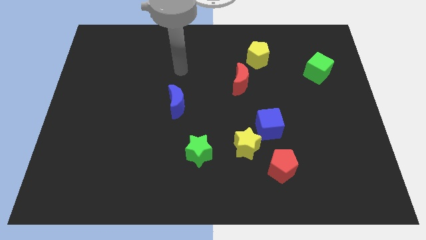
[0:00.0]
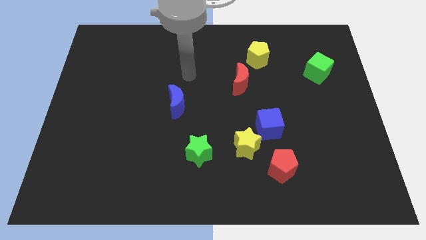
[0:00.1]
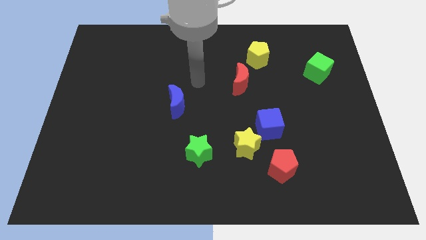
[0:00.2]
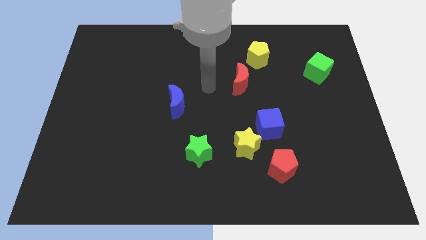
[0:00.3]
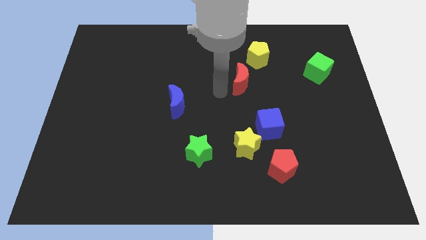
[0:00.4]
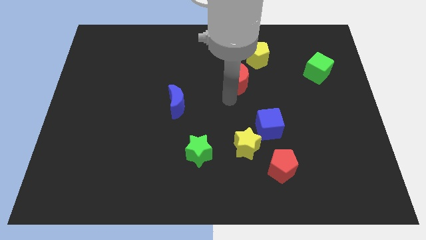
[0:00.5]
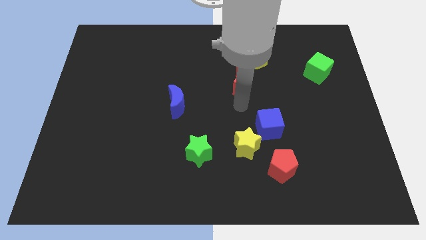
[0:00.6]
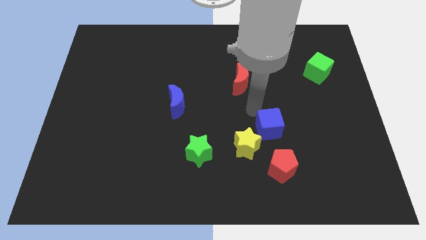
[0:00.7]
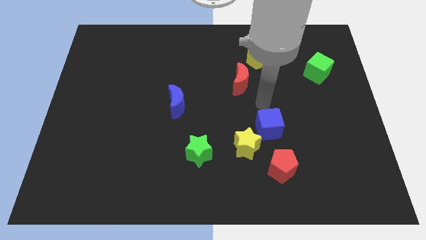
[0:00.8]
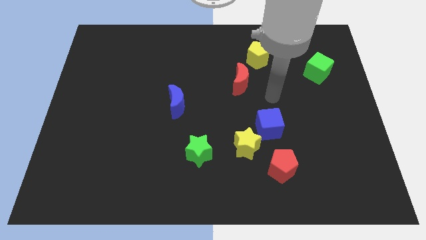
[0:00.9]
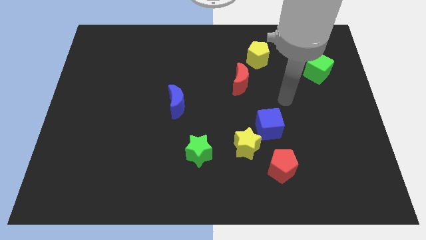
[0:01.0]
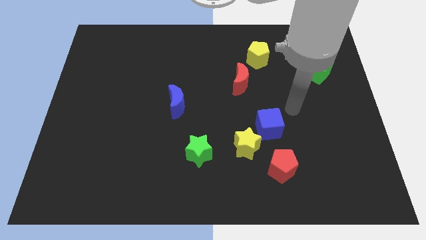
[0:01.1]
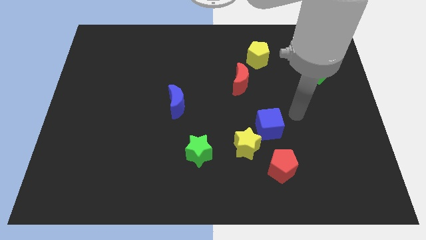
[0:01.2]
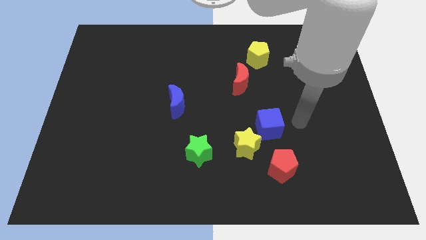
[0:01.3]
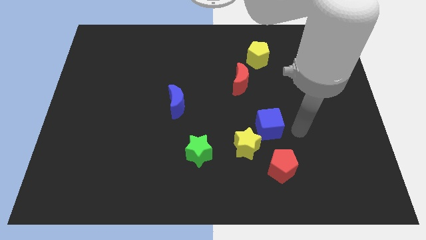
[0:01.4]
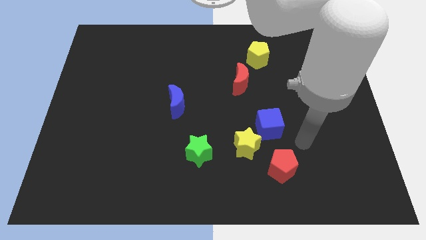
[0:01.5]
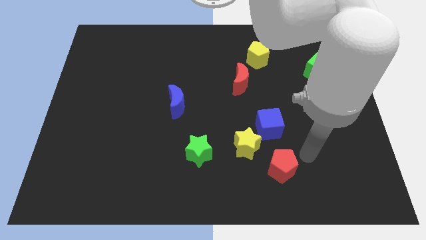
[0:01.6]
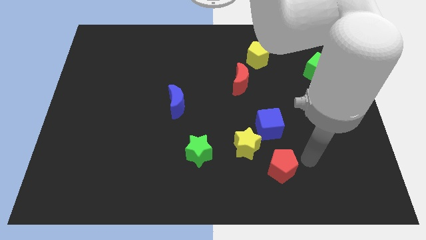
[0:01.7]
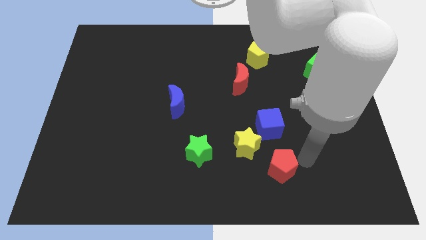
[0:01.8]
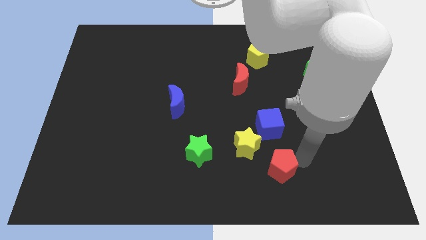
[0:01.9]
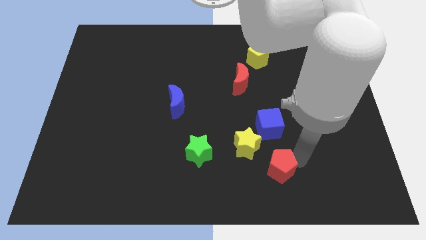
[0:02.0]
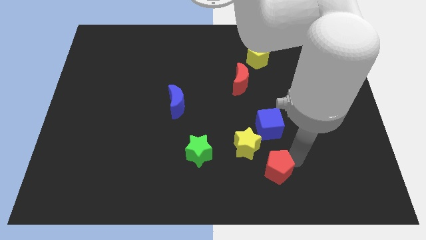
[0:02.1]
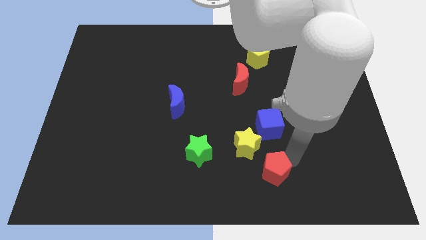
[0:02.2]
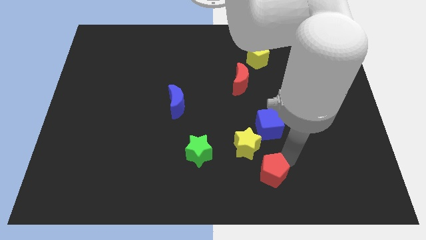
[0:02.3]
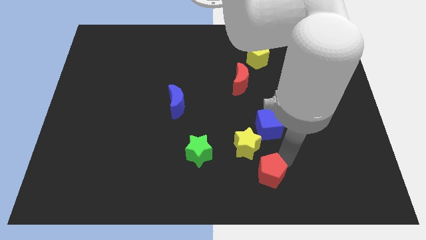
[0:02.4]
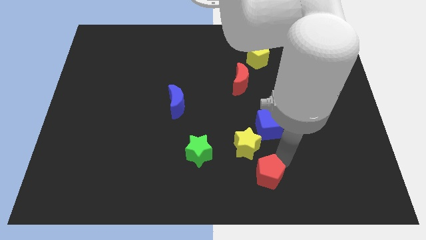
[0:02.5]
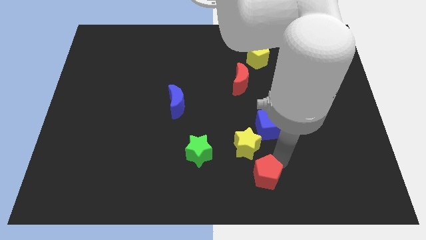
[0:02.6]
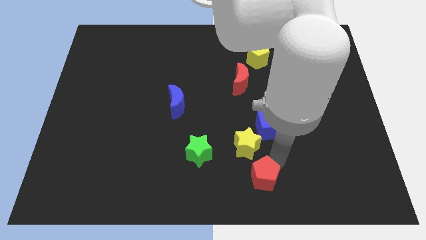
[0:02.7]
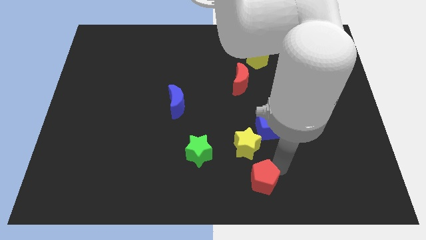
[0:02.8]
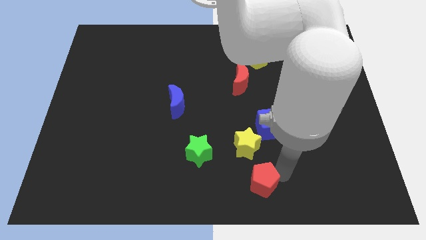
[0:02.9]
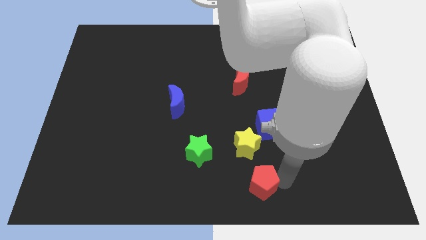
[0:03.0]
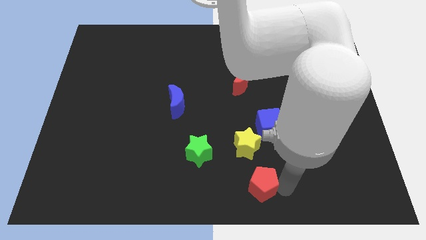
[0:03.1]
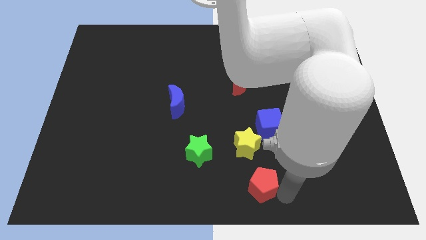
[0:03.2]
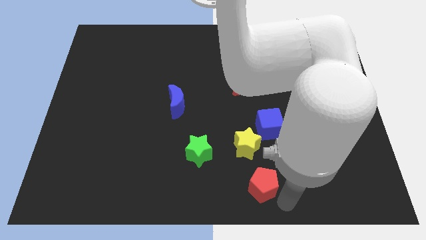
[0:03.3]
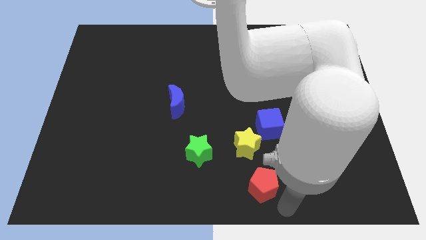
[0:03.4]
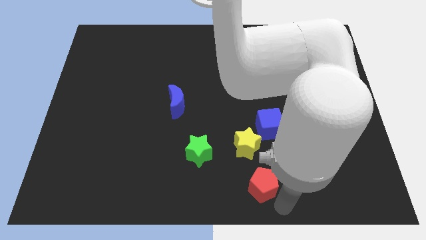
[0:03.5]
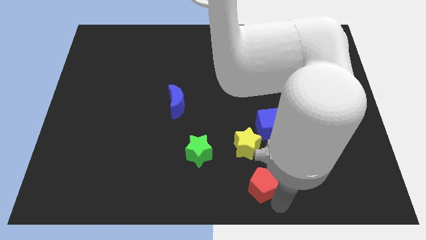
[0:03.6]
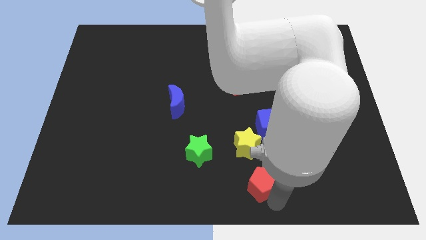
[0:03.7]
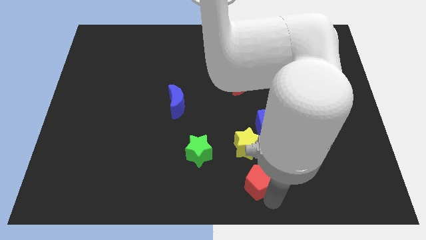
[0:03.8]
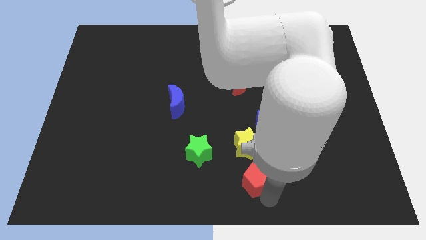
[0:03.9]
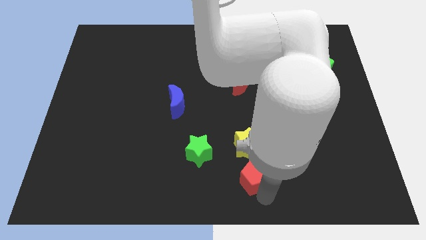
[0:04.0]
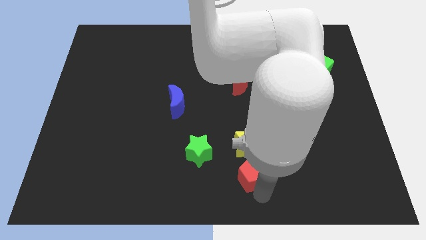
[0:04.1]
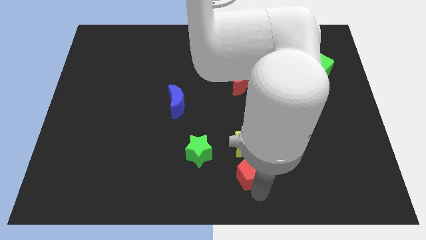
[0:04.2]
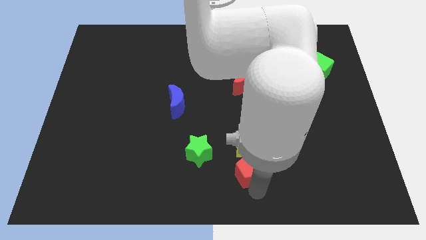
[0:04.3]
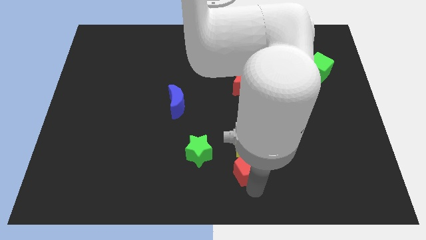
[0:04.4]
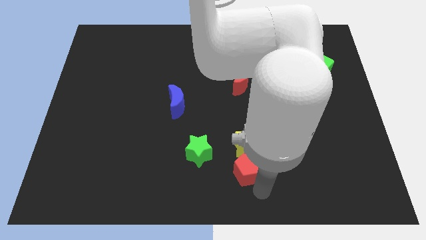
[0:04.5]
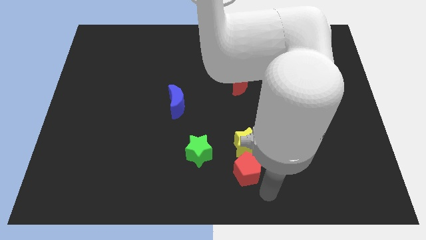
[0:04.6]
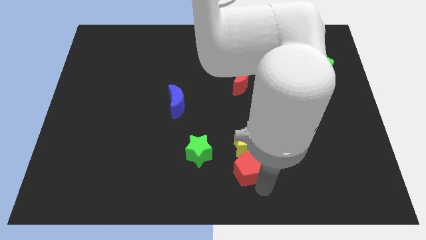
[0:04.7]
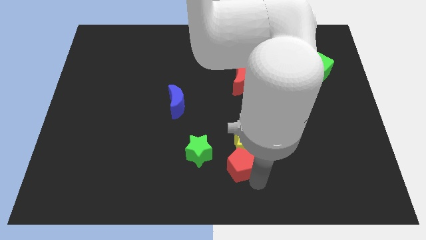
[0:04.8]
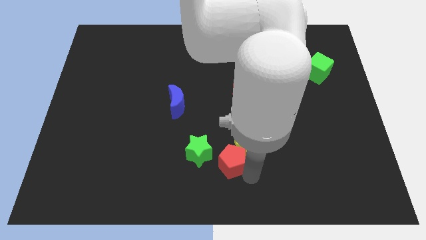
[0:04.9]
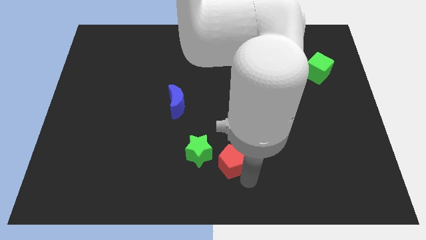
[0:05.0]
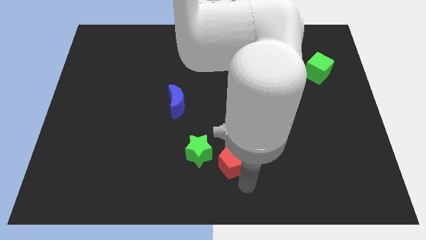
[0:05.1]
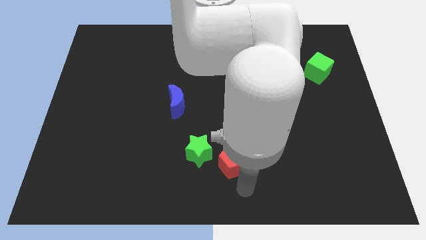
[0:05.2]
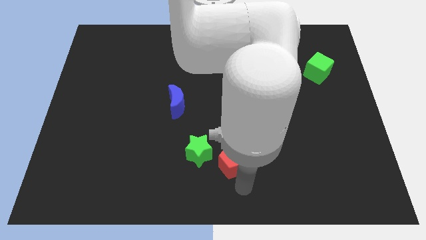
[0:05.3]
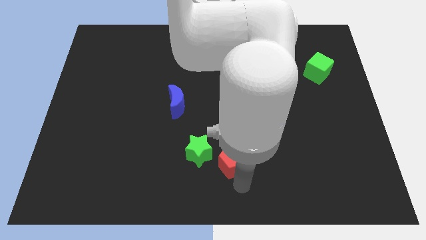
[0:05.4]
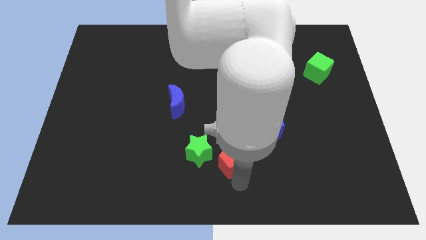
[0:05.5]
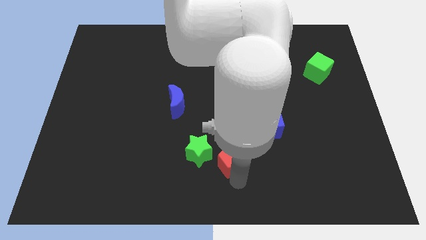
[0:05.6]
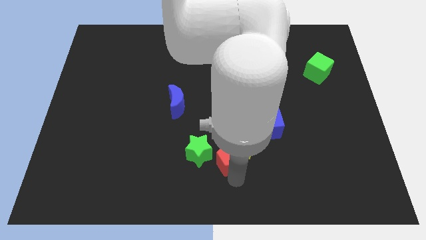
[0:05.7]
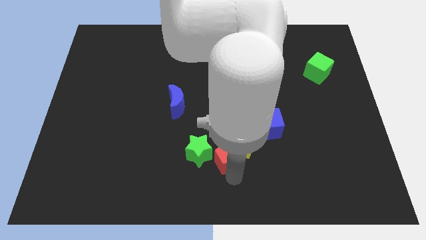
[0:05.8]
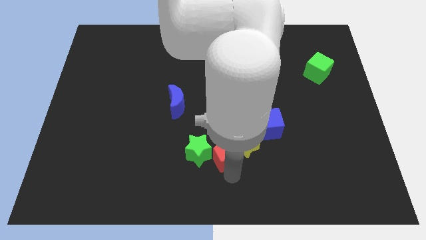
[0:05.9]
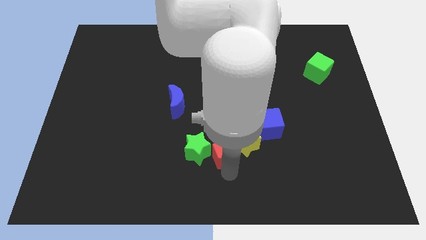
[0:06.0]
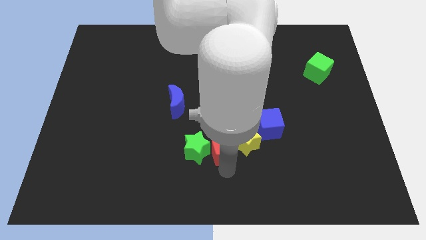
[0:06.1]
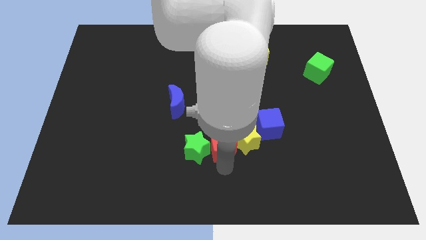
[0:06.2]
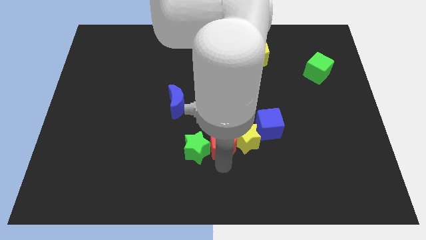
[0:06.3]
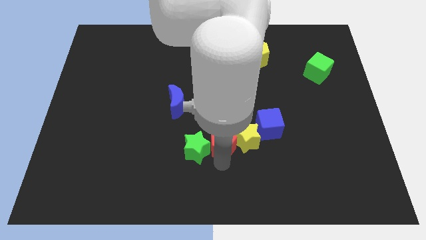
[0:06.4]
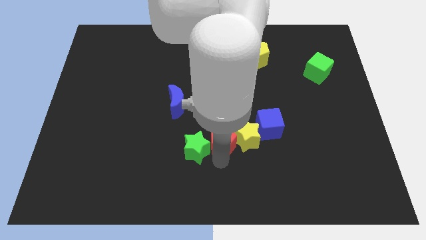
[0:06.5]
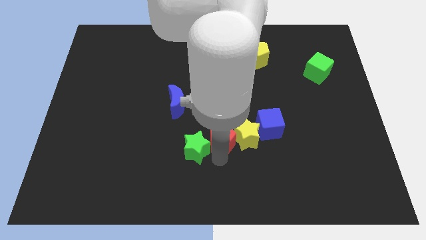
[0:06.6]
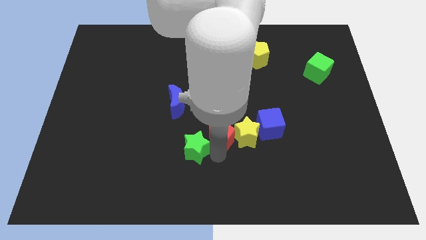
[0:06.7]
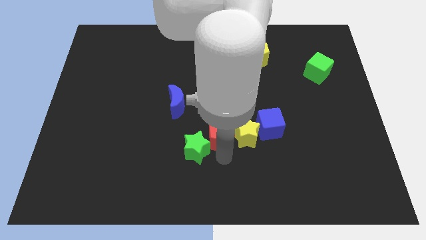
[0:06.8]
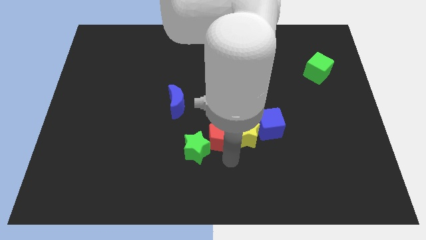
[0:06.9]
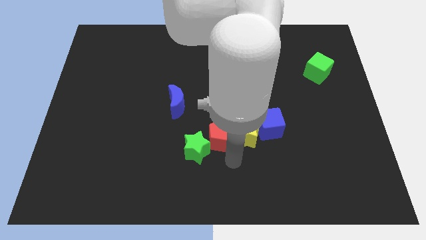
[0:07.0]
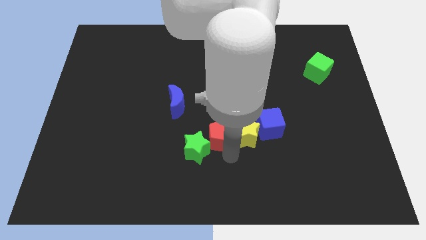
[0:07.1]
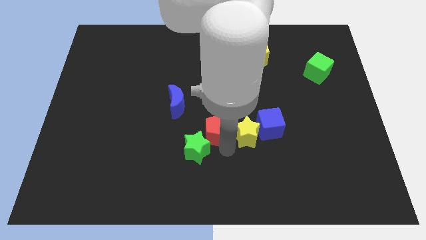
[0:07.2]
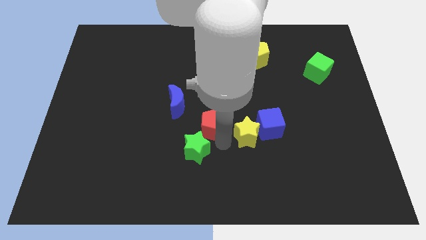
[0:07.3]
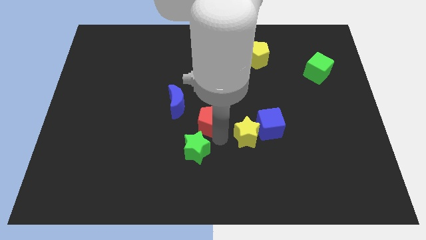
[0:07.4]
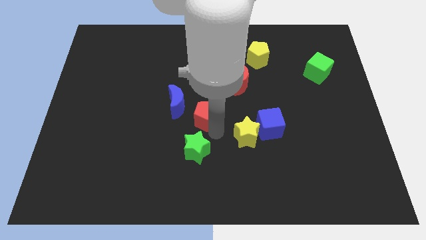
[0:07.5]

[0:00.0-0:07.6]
push the red pentagon upwards and then to the left

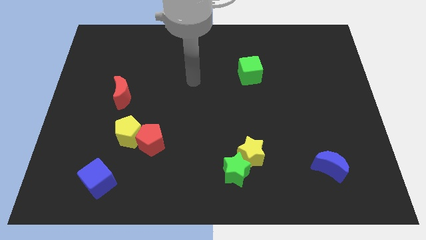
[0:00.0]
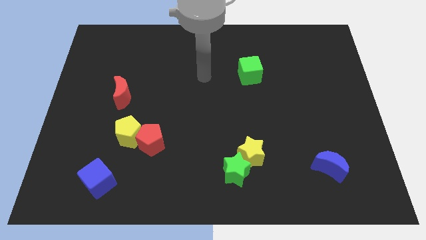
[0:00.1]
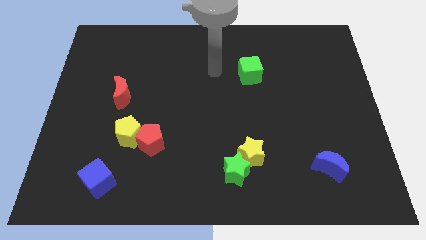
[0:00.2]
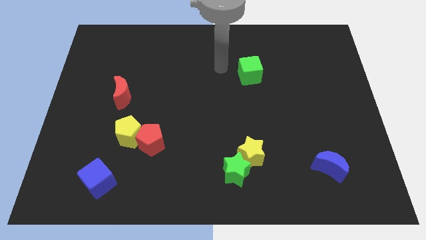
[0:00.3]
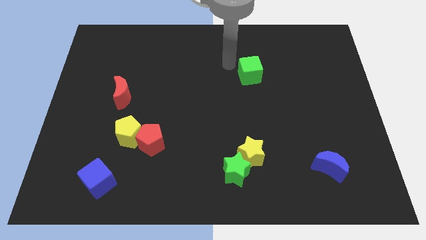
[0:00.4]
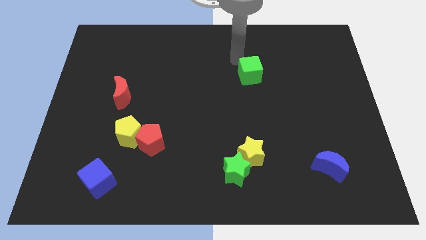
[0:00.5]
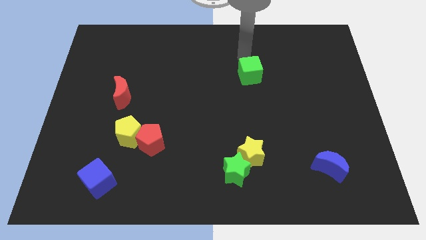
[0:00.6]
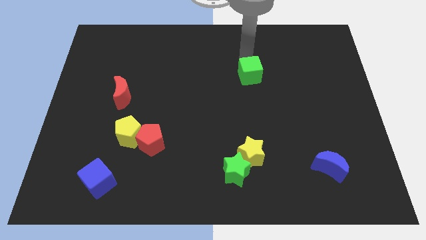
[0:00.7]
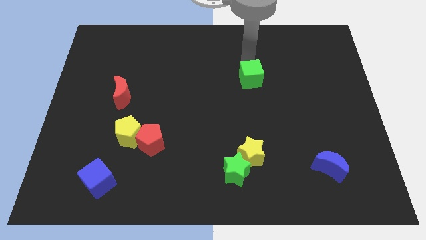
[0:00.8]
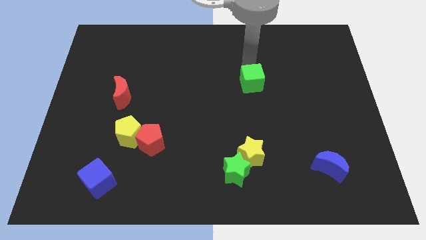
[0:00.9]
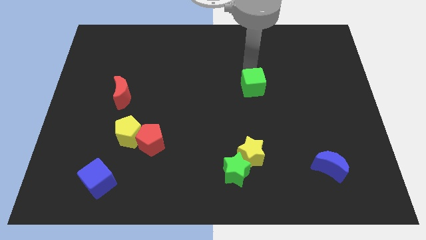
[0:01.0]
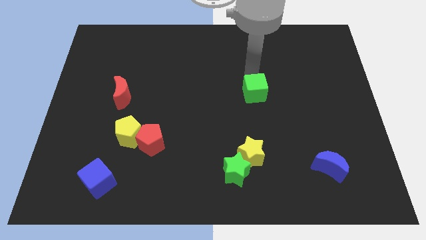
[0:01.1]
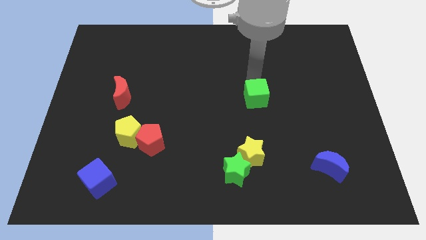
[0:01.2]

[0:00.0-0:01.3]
push the green cube down a little bit
